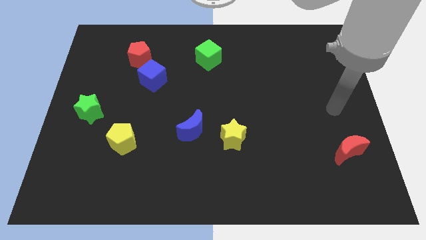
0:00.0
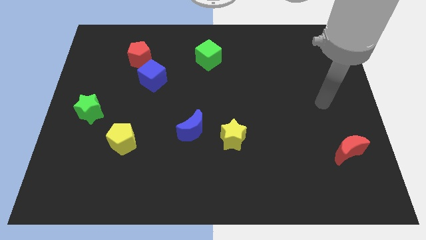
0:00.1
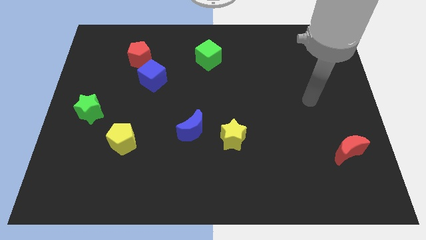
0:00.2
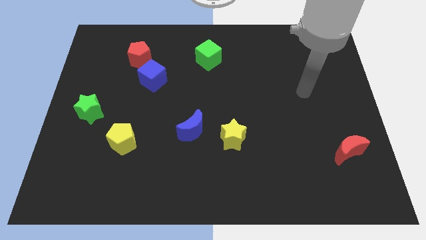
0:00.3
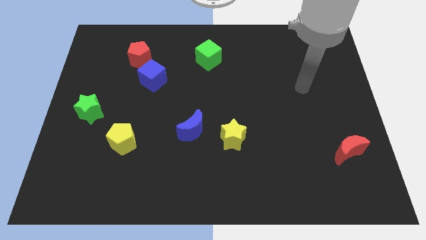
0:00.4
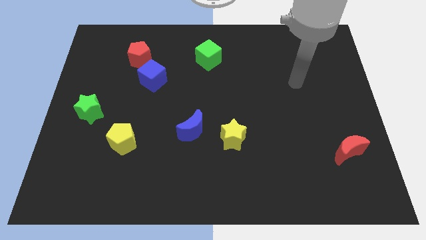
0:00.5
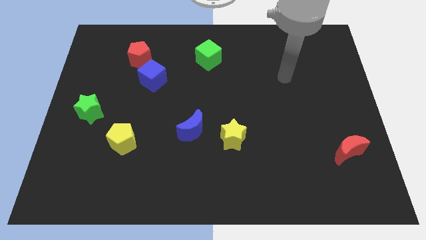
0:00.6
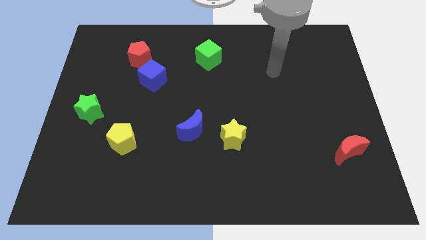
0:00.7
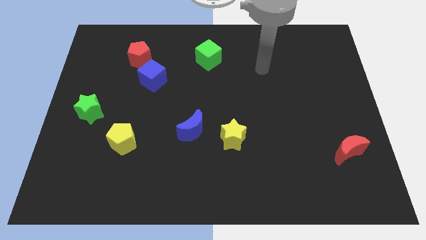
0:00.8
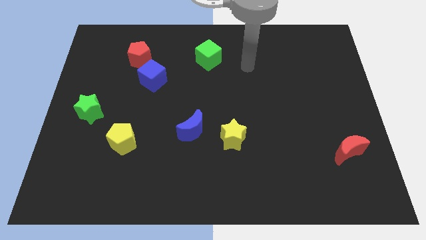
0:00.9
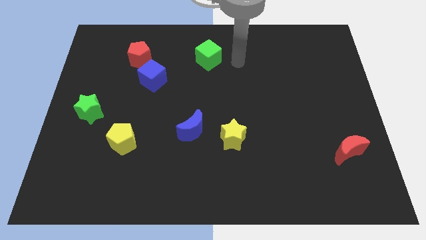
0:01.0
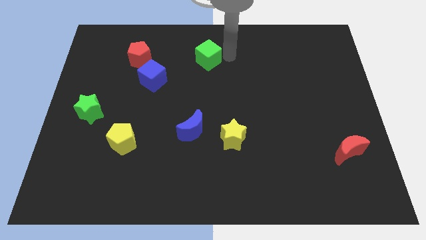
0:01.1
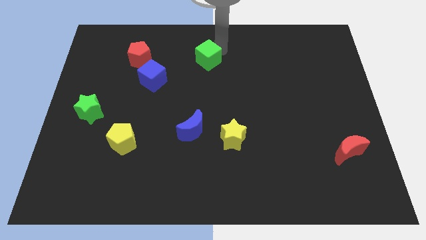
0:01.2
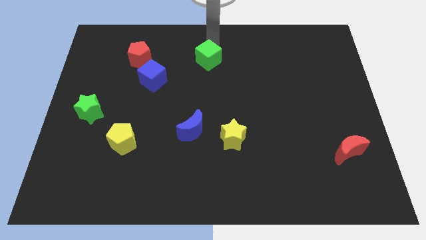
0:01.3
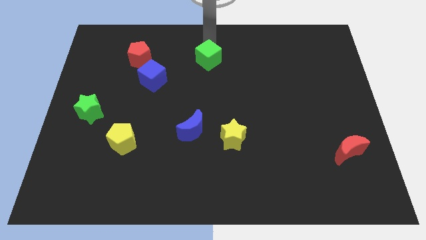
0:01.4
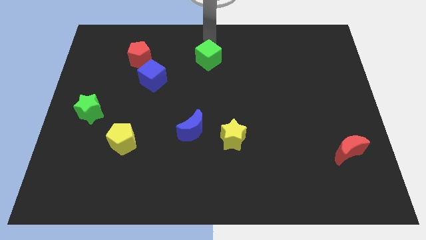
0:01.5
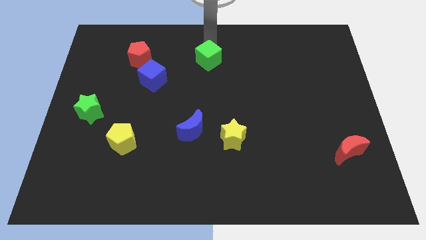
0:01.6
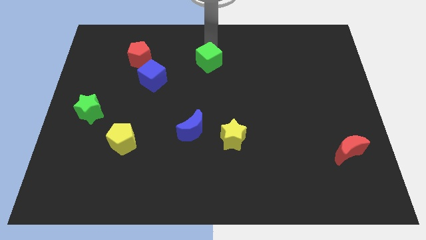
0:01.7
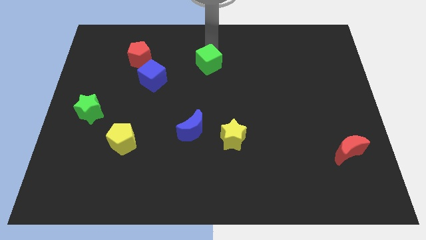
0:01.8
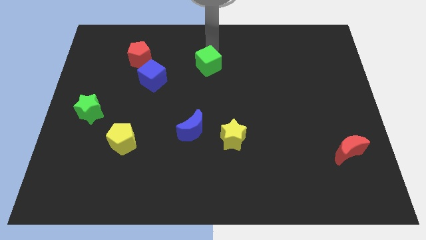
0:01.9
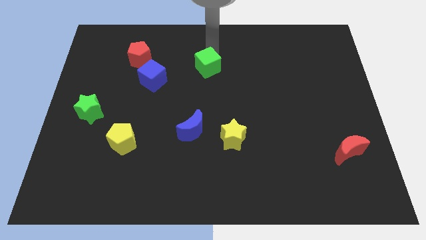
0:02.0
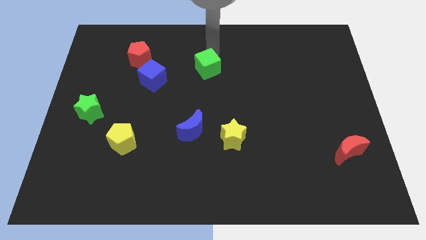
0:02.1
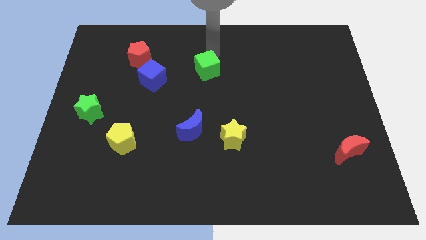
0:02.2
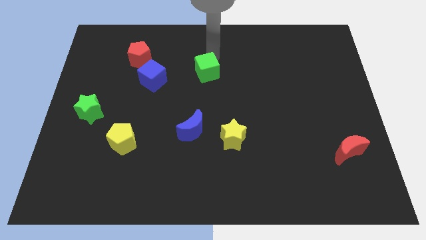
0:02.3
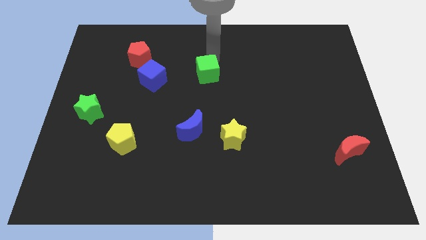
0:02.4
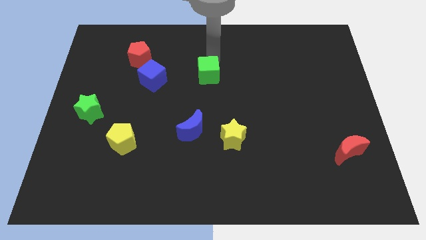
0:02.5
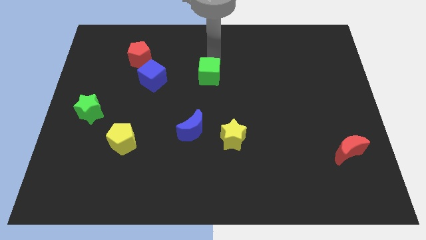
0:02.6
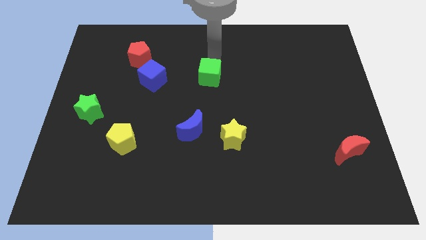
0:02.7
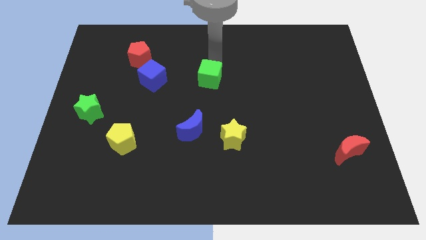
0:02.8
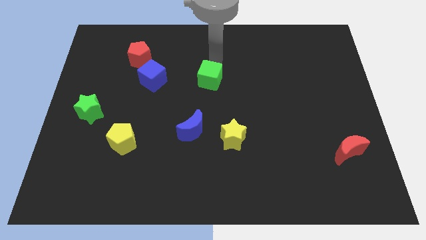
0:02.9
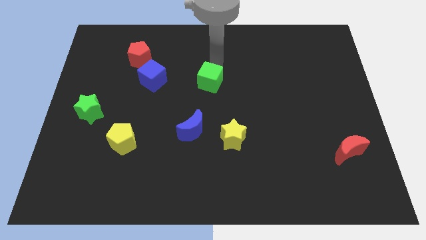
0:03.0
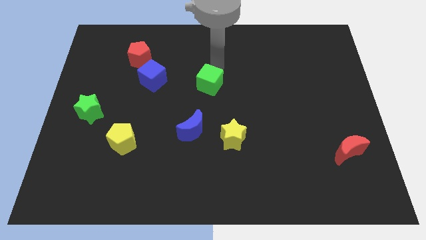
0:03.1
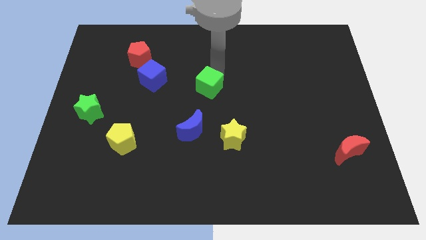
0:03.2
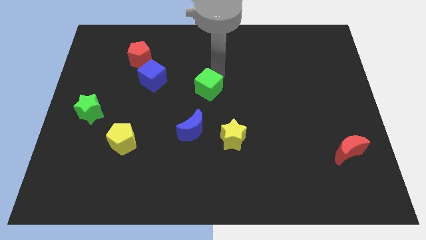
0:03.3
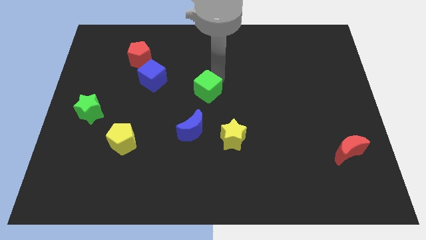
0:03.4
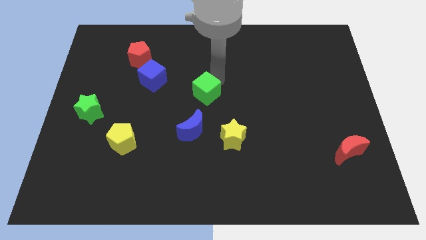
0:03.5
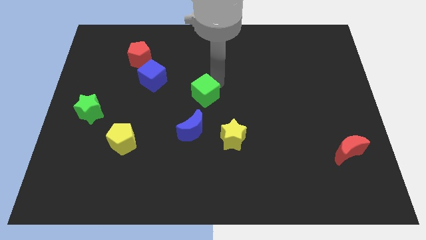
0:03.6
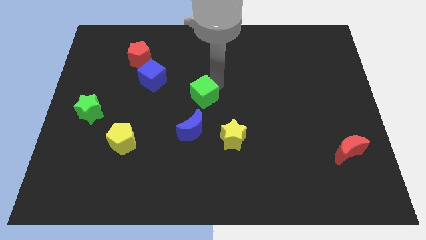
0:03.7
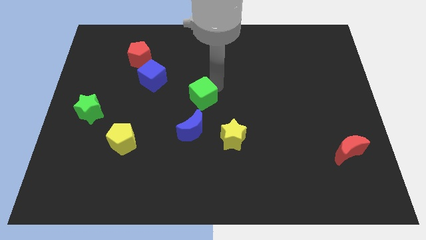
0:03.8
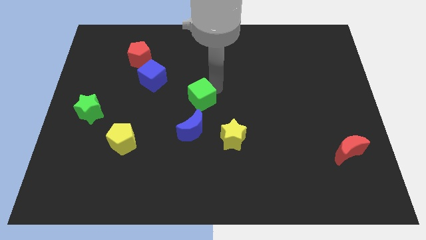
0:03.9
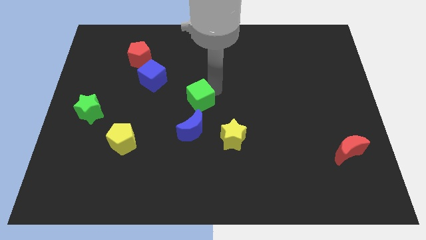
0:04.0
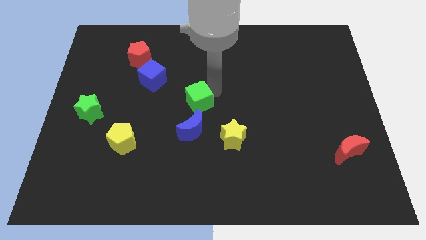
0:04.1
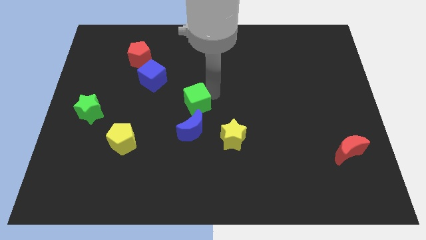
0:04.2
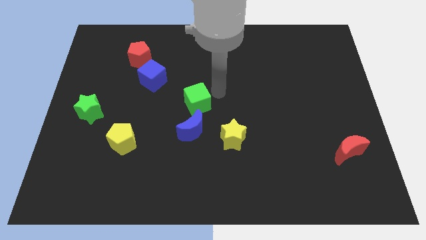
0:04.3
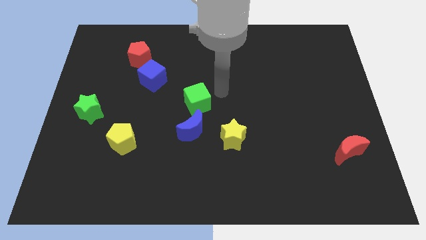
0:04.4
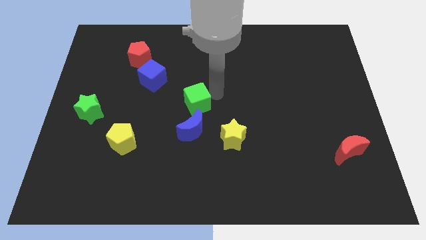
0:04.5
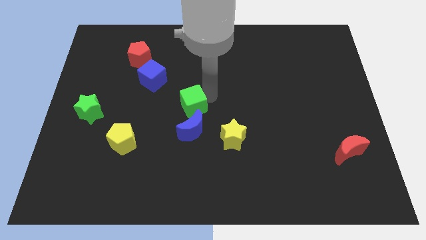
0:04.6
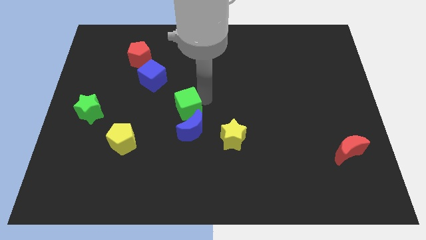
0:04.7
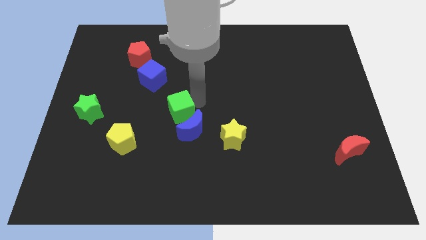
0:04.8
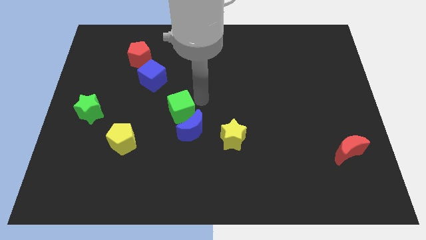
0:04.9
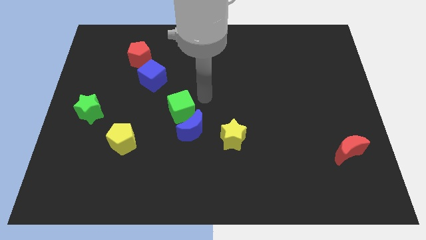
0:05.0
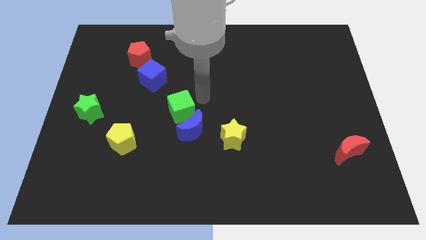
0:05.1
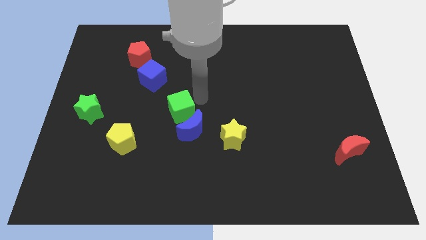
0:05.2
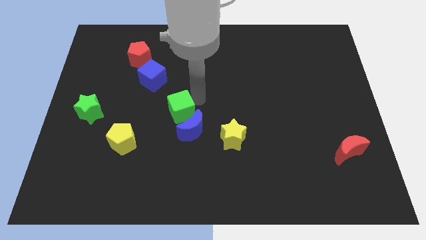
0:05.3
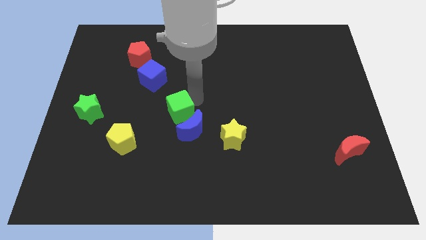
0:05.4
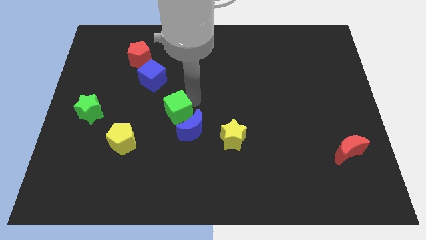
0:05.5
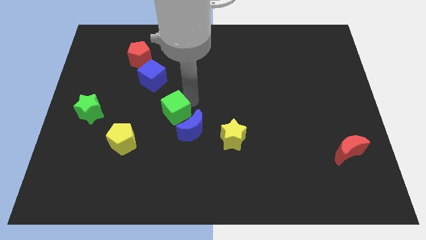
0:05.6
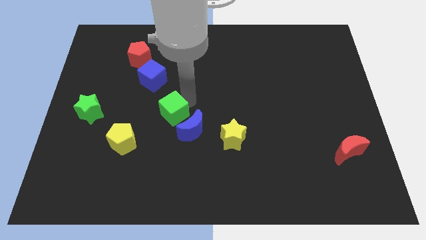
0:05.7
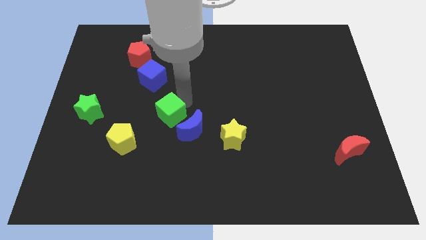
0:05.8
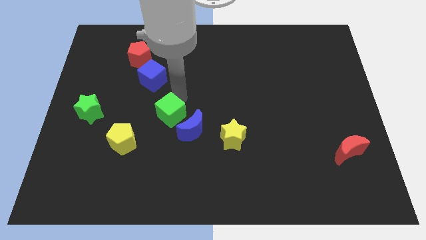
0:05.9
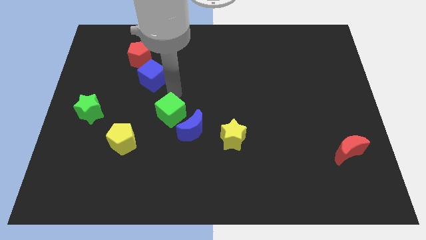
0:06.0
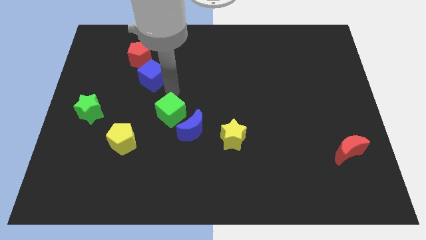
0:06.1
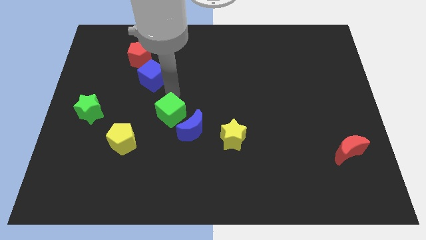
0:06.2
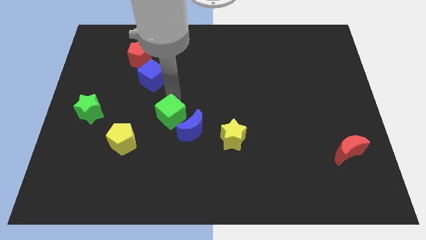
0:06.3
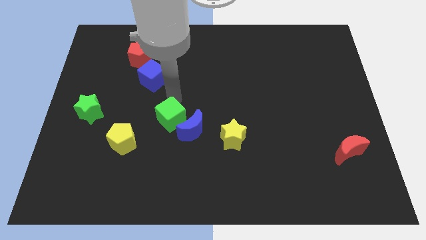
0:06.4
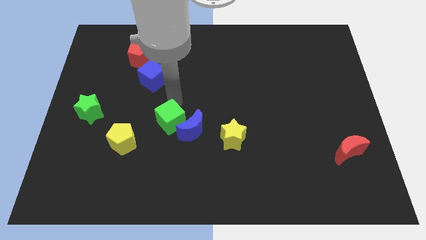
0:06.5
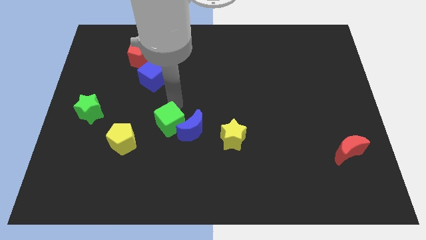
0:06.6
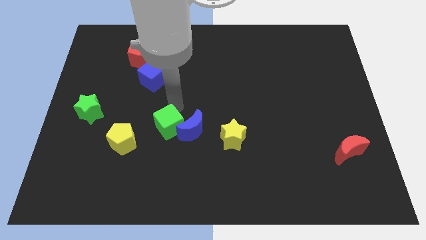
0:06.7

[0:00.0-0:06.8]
put the green cube to the right side of the yellow pentagon
